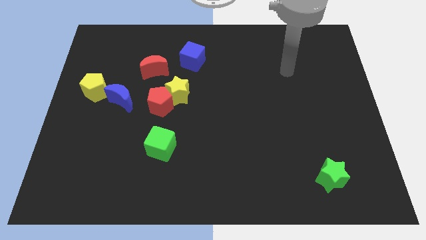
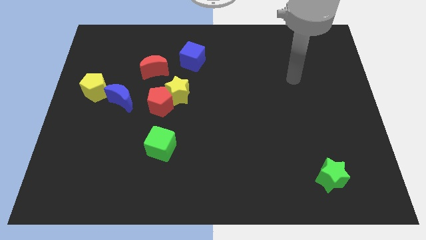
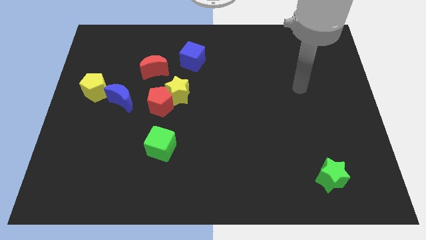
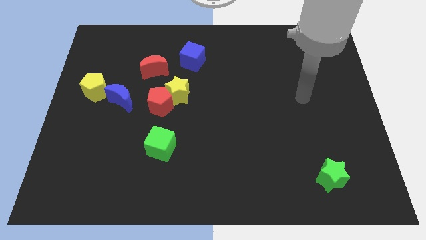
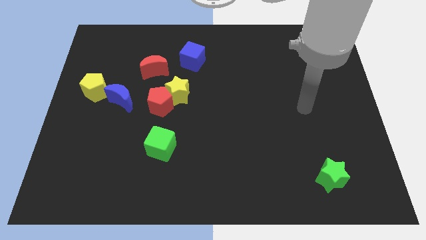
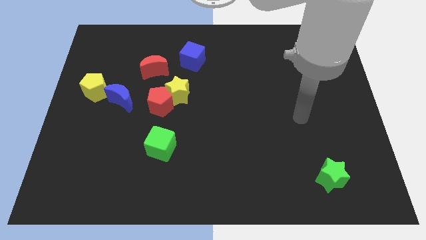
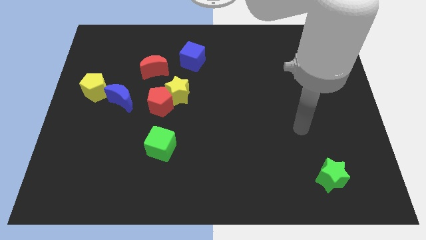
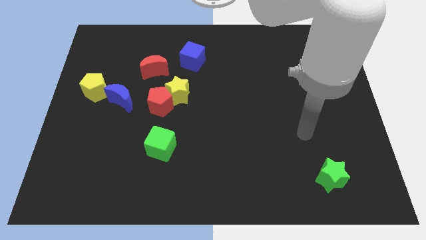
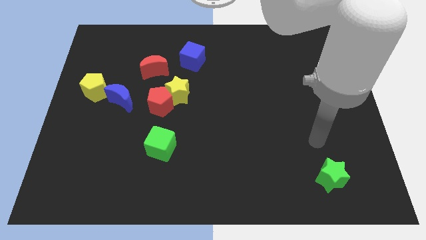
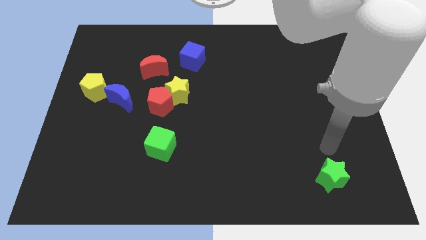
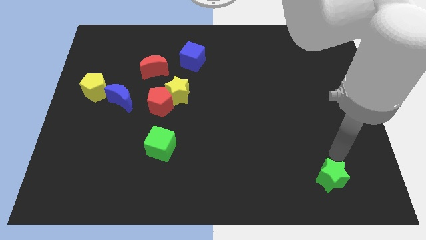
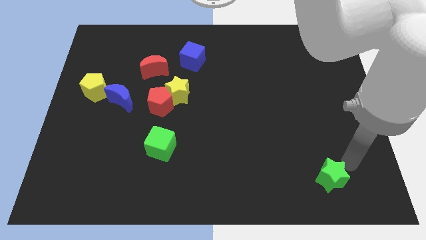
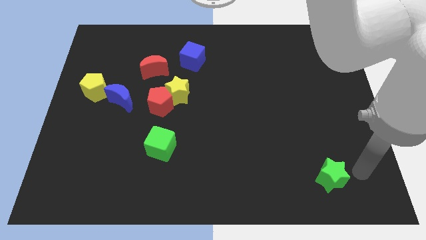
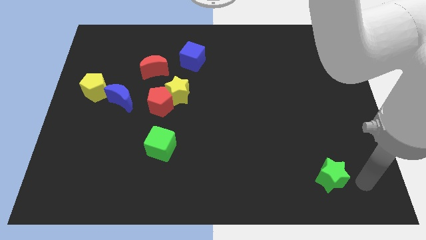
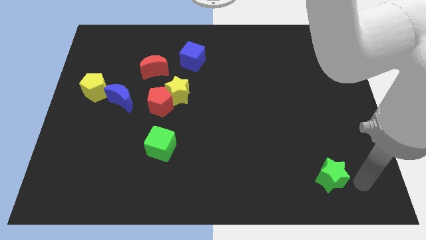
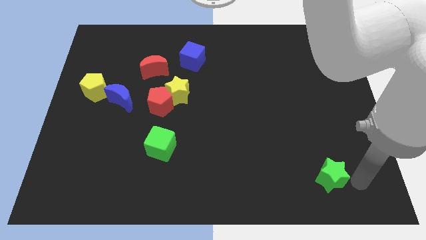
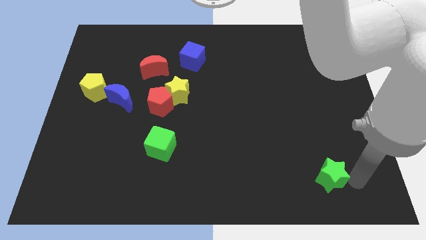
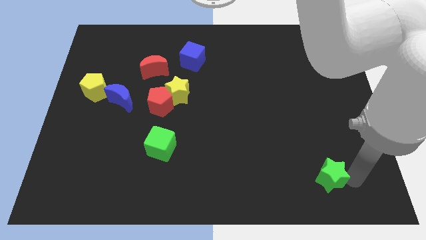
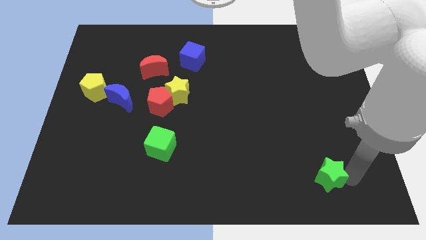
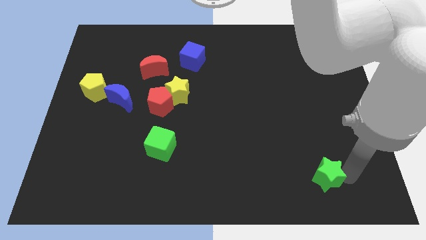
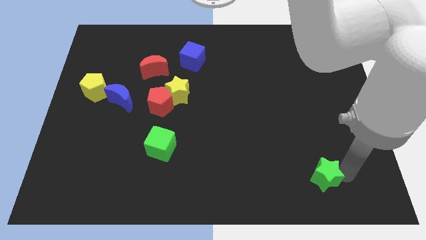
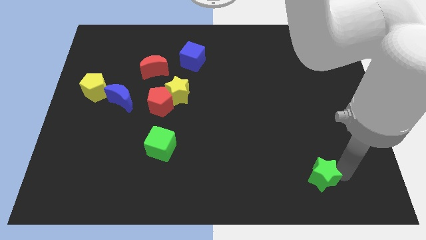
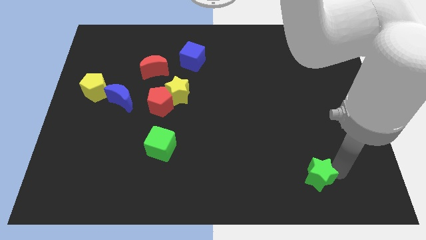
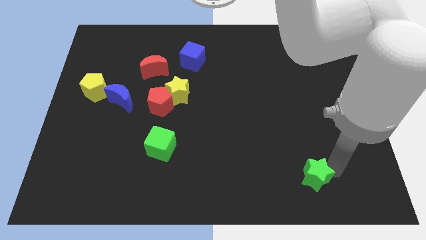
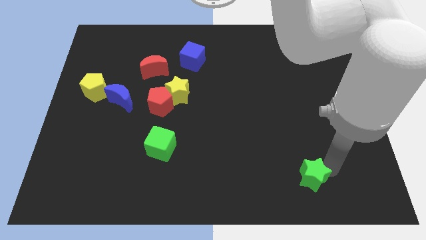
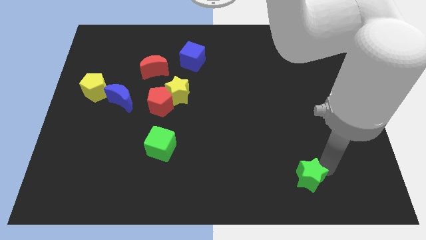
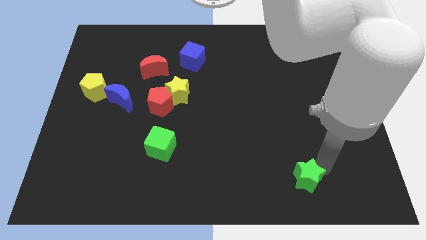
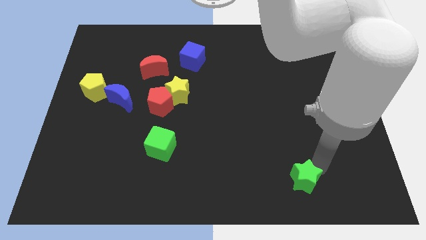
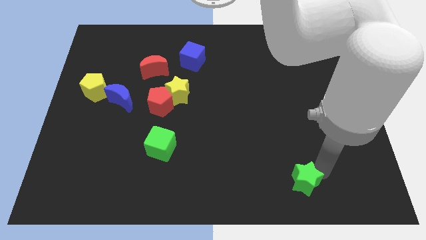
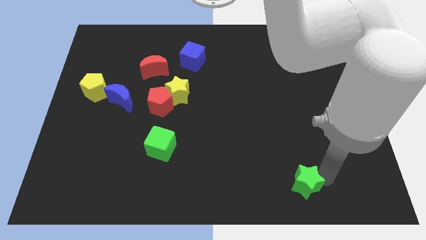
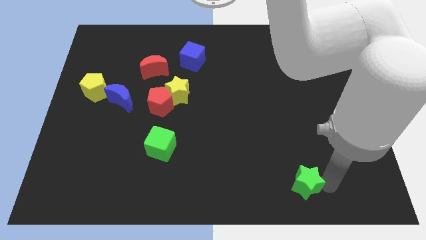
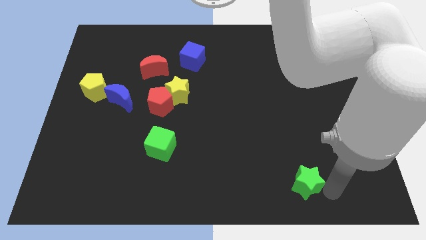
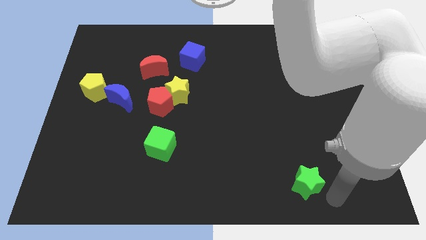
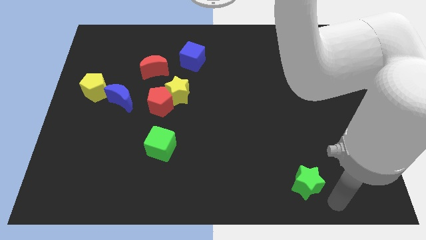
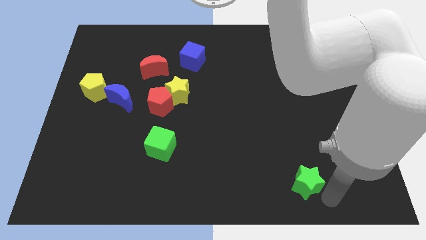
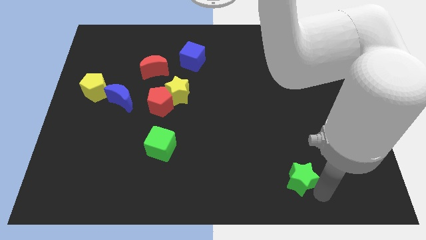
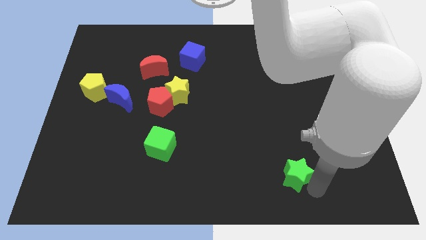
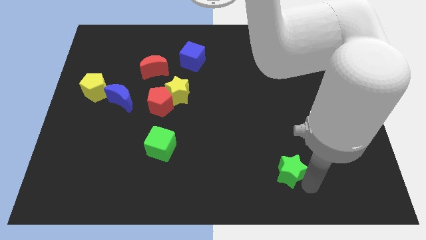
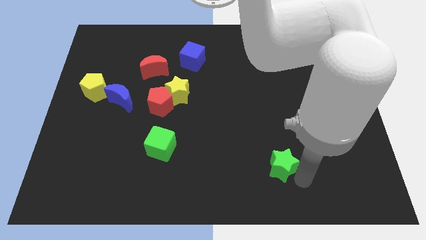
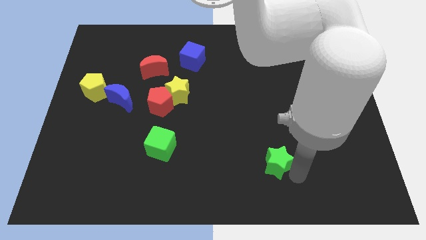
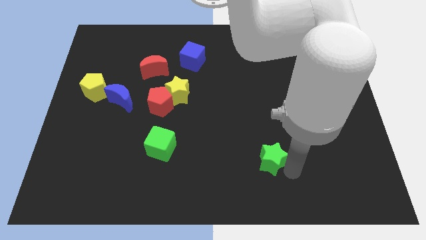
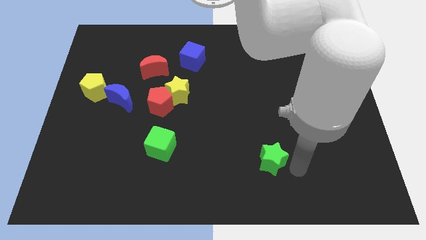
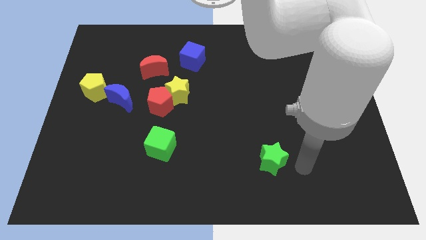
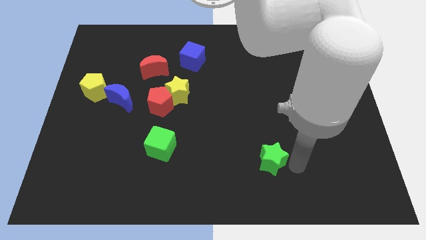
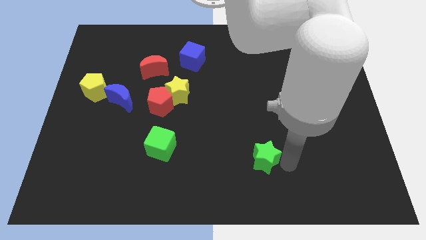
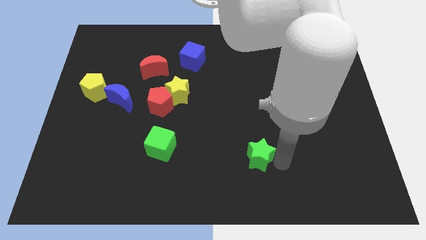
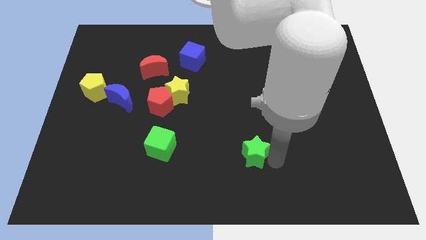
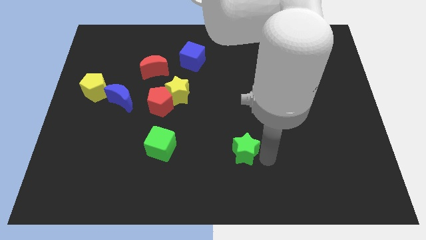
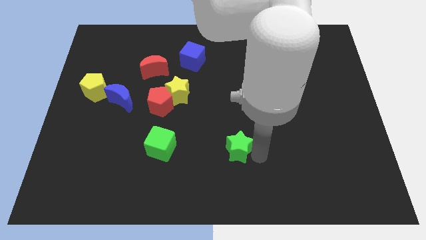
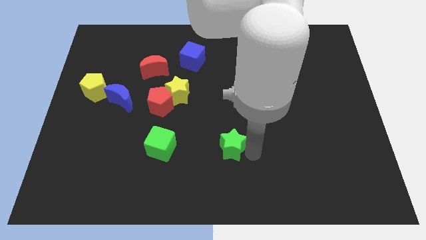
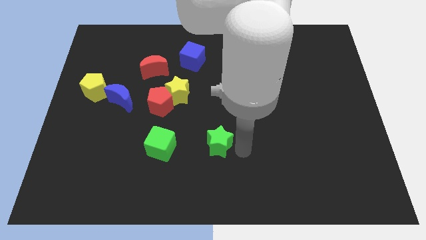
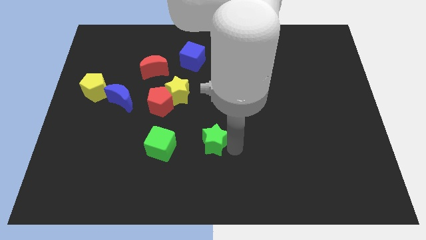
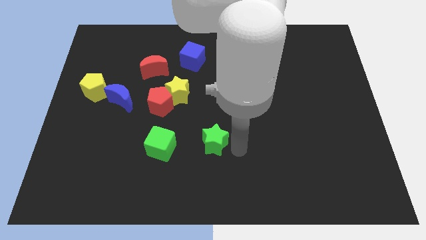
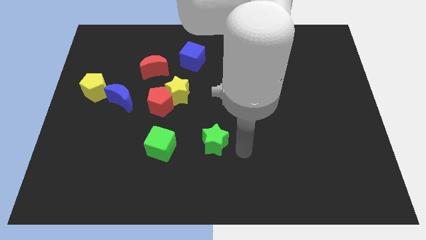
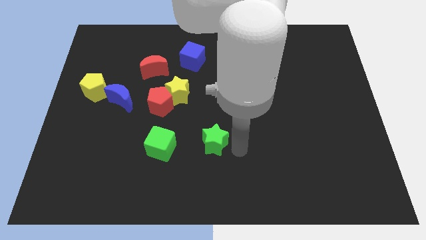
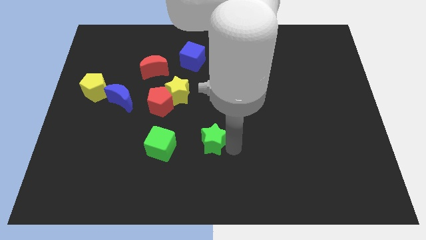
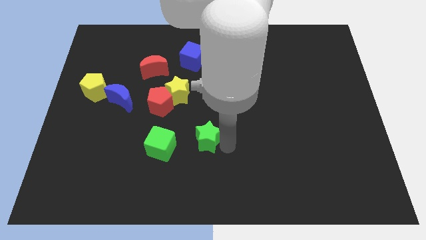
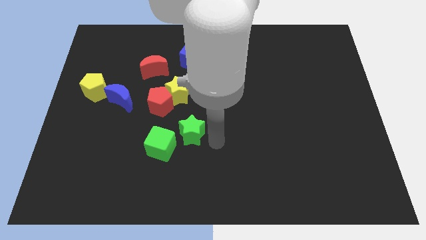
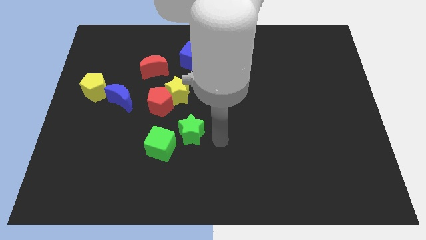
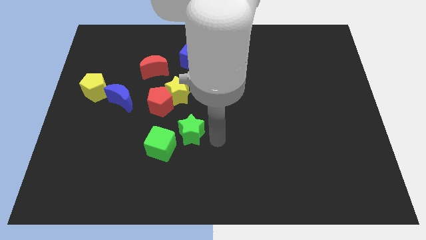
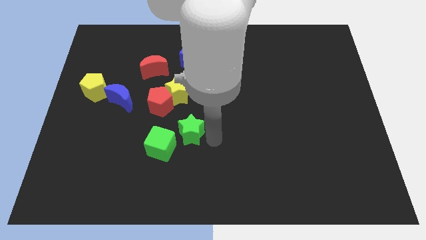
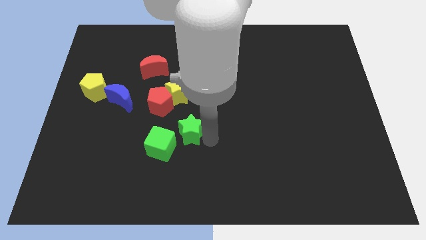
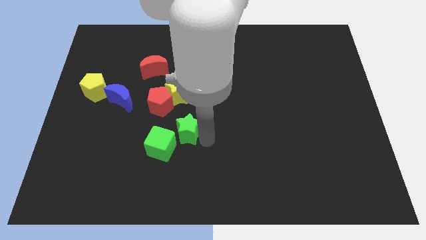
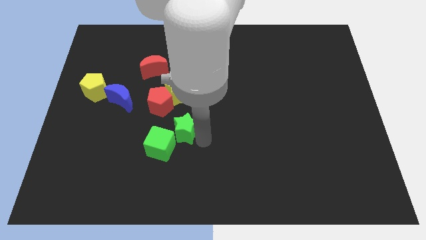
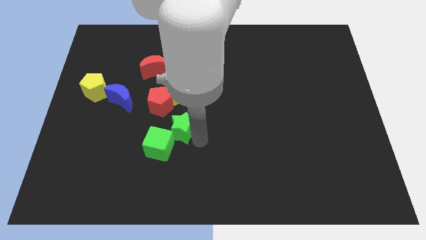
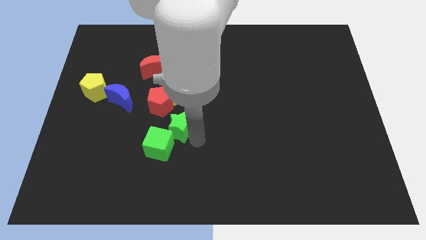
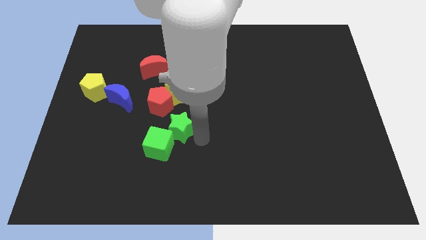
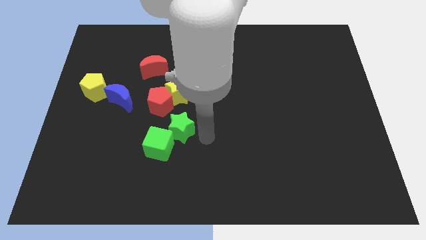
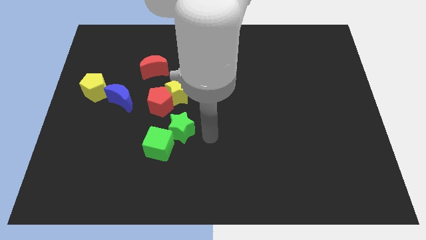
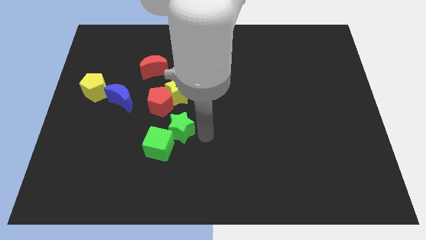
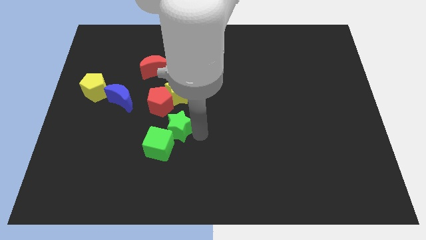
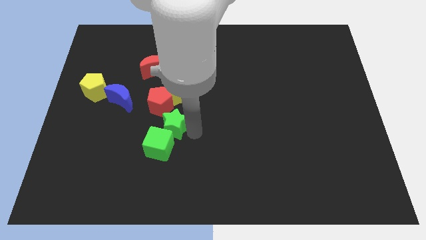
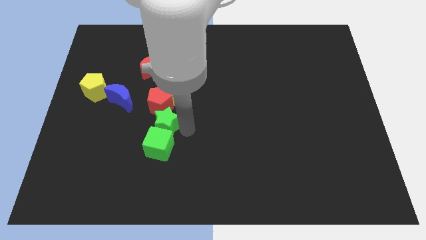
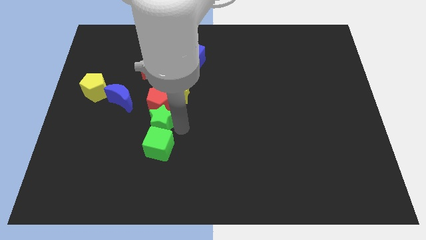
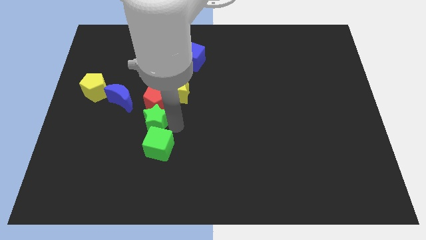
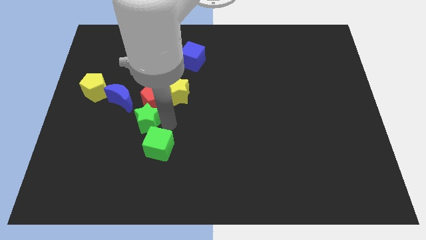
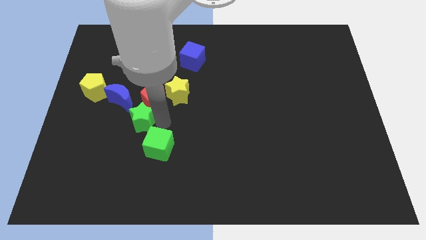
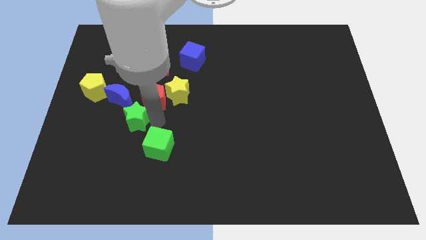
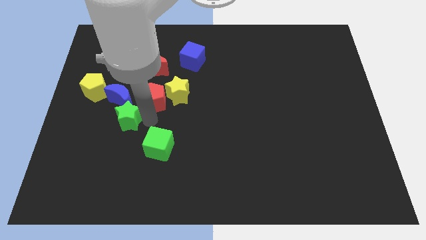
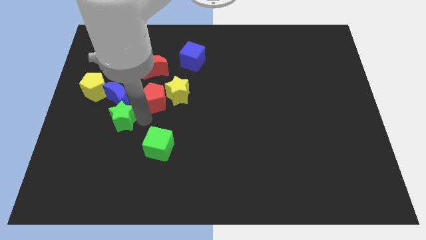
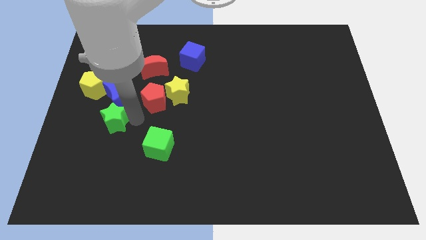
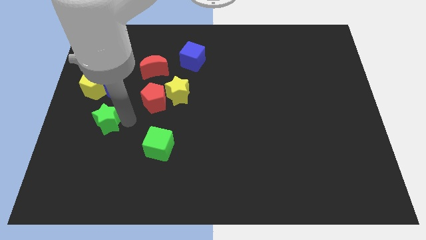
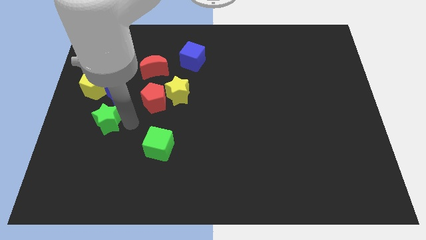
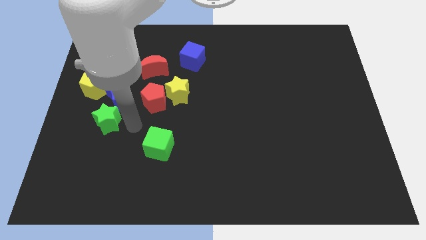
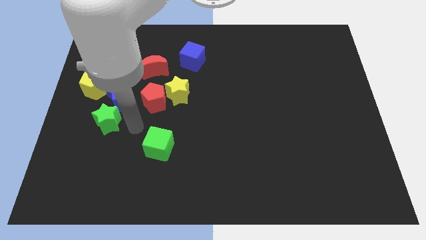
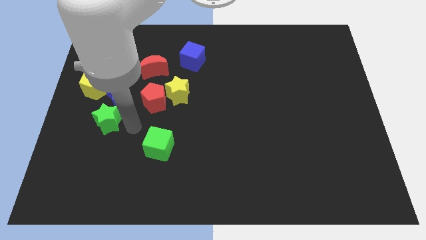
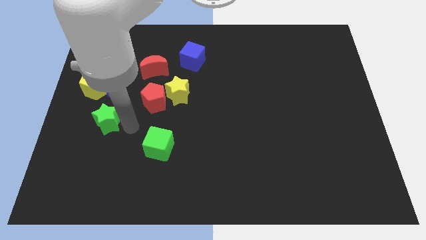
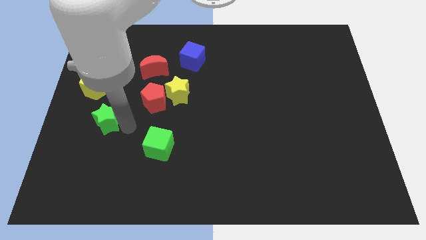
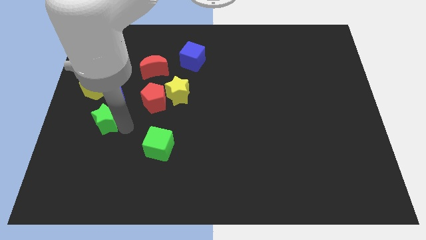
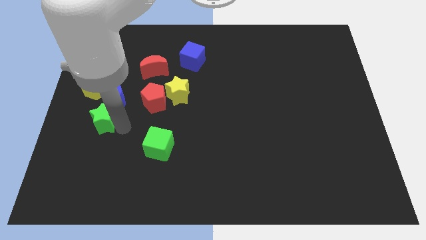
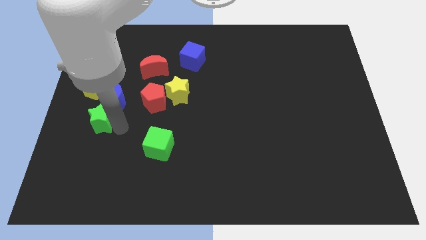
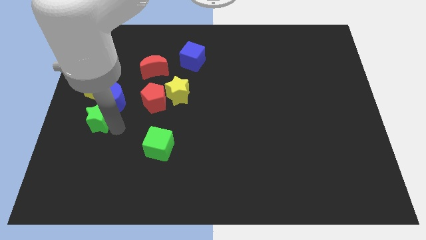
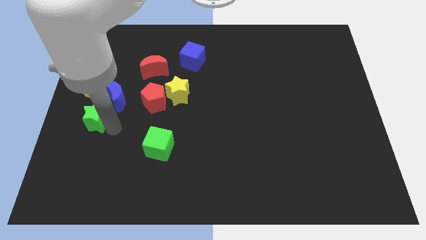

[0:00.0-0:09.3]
move the green star to the left side
